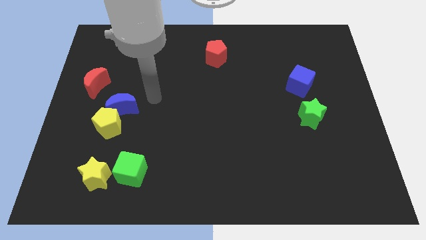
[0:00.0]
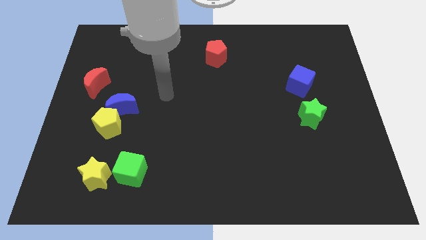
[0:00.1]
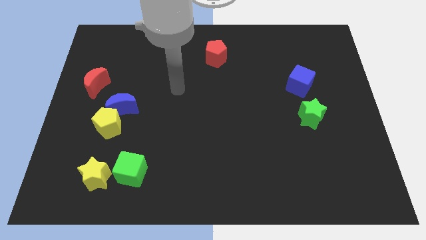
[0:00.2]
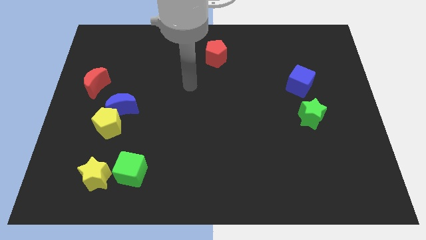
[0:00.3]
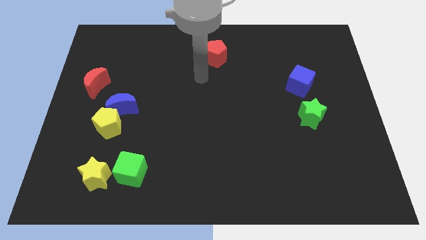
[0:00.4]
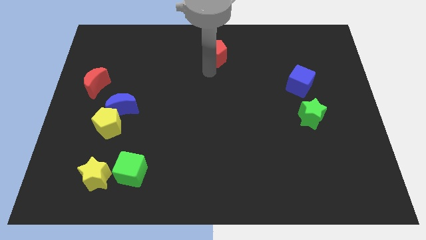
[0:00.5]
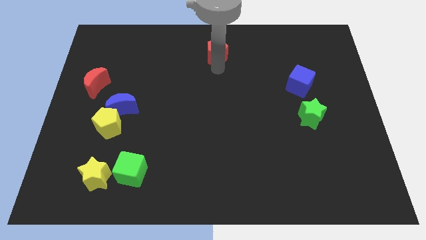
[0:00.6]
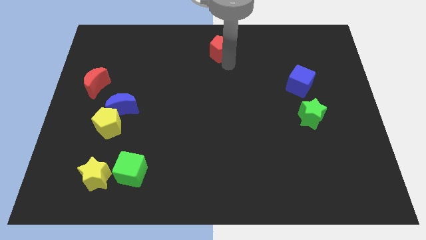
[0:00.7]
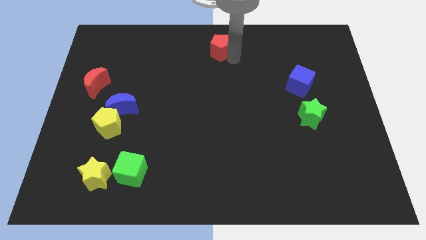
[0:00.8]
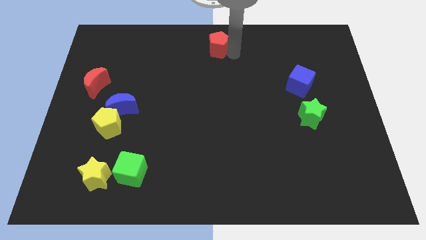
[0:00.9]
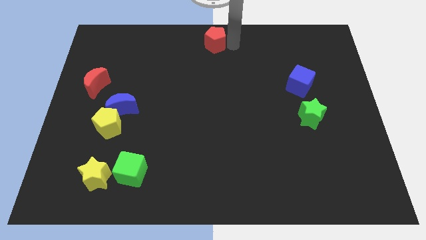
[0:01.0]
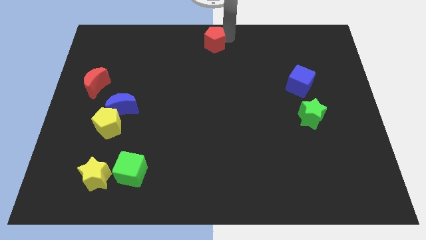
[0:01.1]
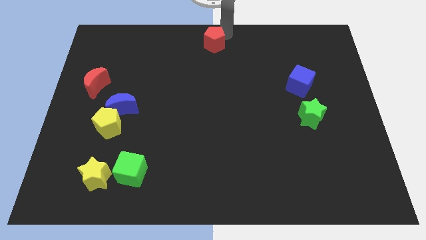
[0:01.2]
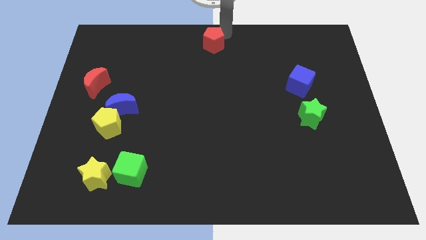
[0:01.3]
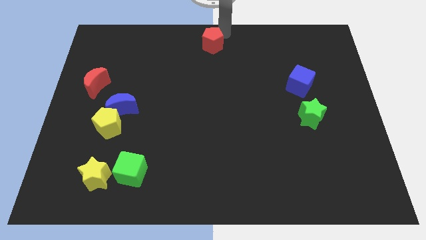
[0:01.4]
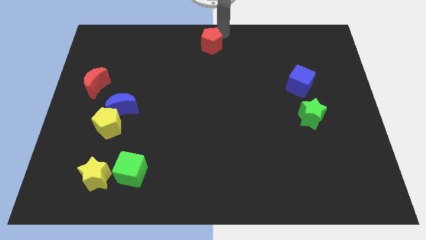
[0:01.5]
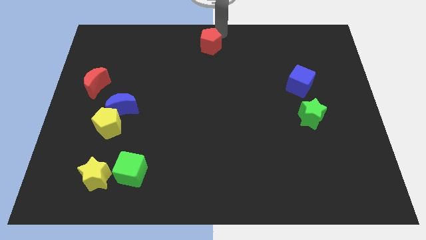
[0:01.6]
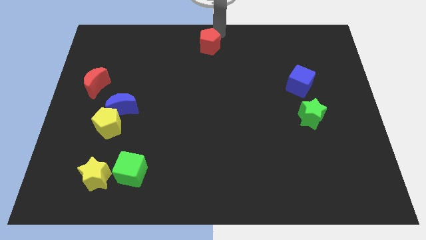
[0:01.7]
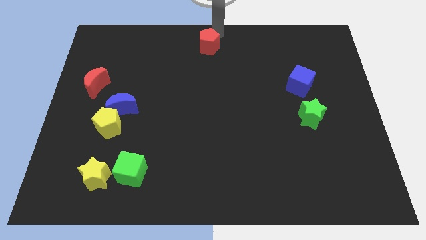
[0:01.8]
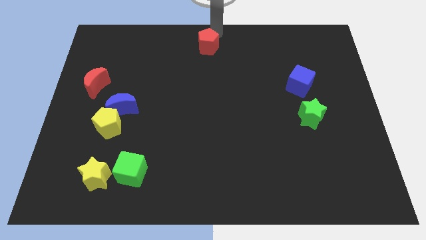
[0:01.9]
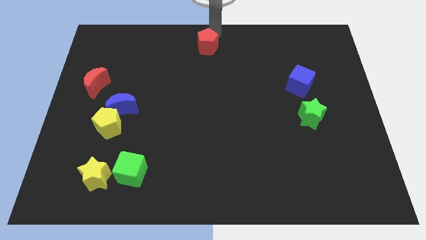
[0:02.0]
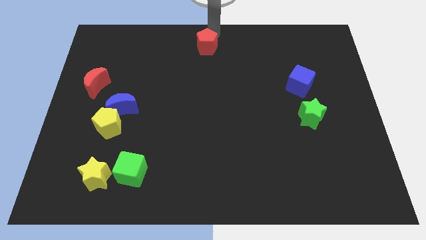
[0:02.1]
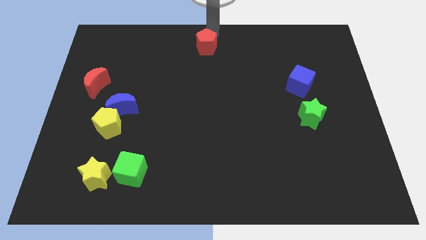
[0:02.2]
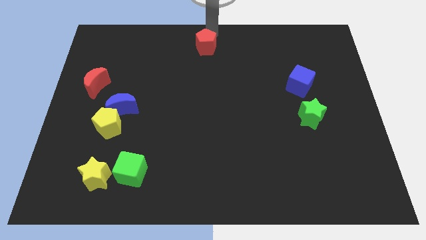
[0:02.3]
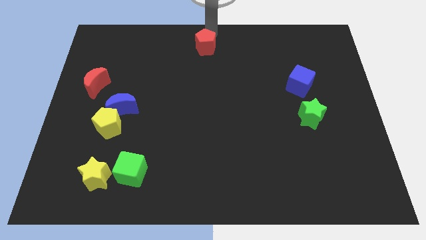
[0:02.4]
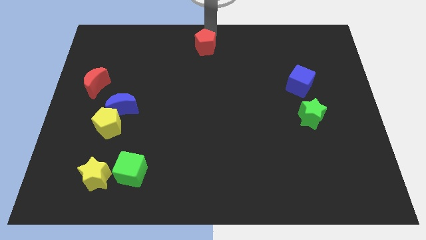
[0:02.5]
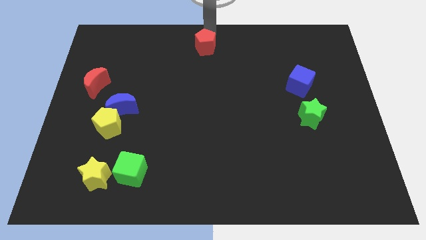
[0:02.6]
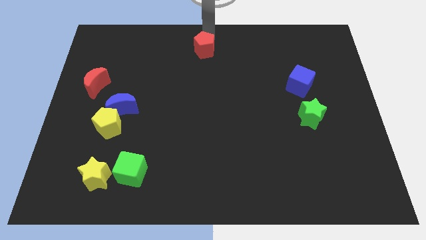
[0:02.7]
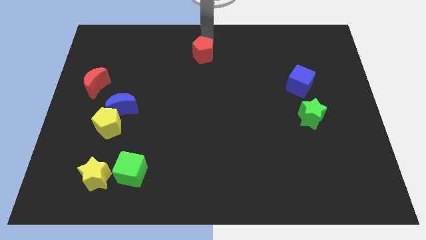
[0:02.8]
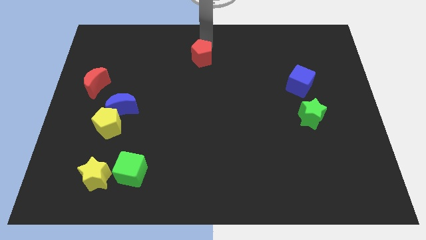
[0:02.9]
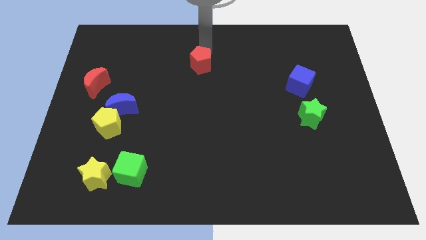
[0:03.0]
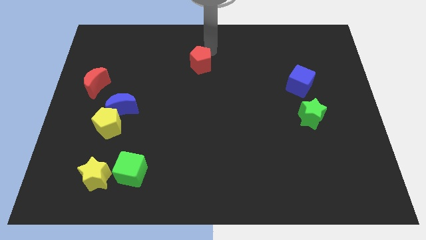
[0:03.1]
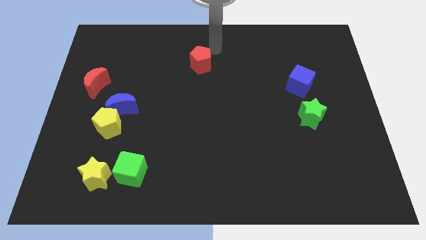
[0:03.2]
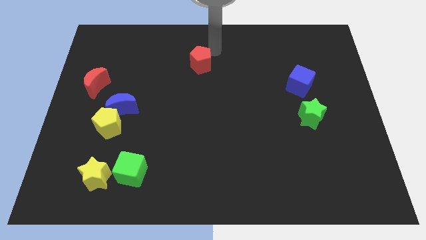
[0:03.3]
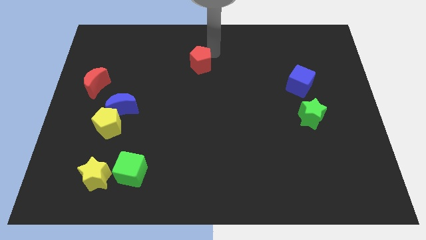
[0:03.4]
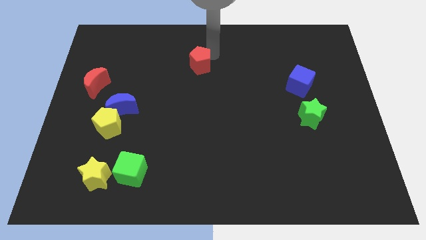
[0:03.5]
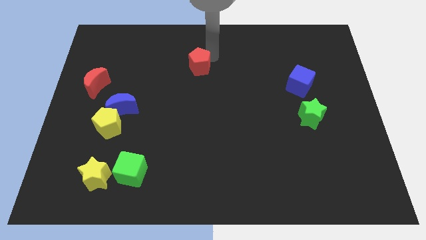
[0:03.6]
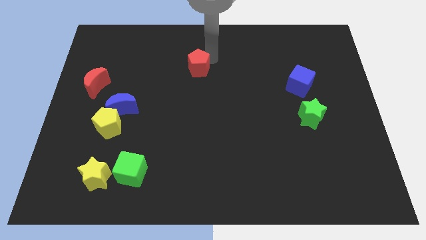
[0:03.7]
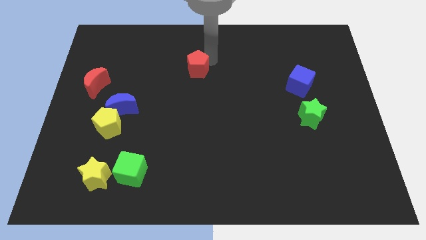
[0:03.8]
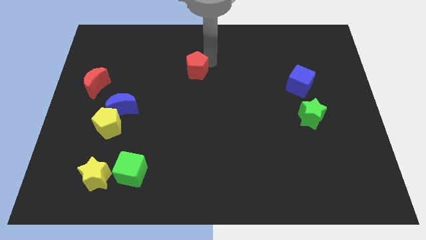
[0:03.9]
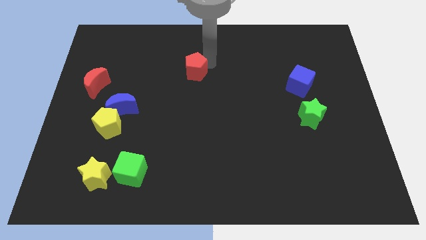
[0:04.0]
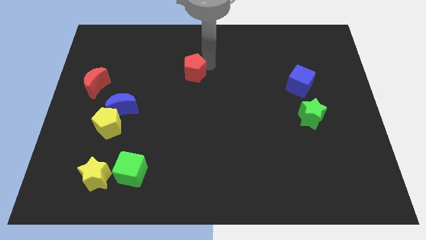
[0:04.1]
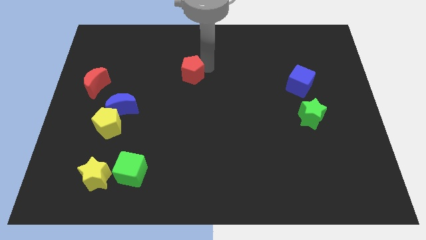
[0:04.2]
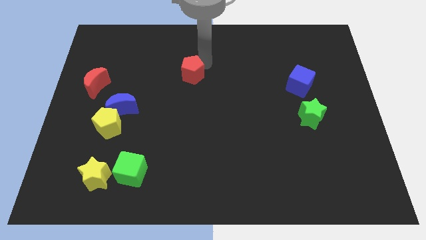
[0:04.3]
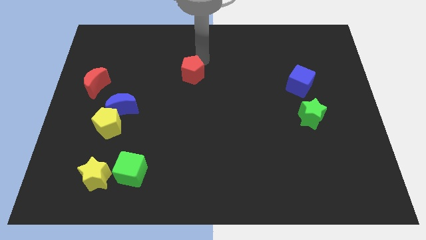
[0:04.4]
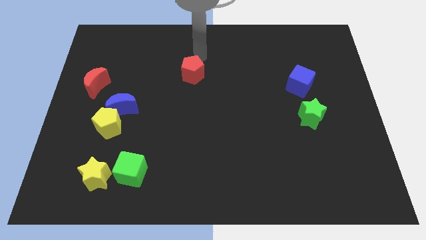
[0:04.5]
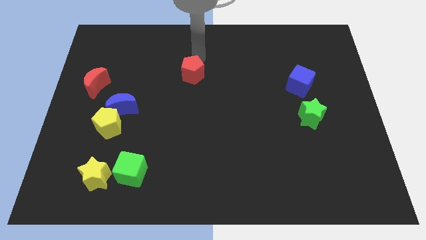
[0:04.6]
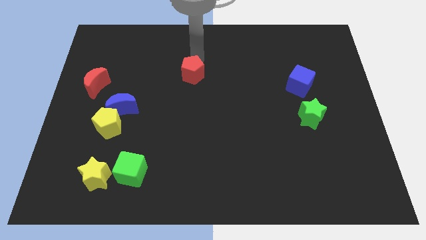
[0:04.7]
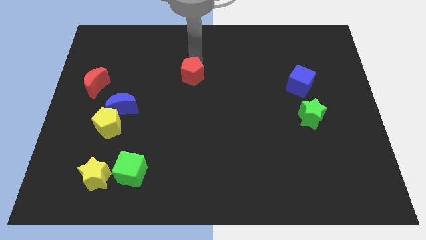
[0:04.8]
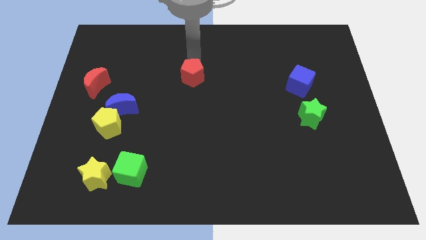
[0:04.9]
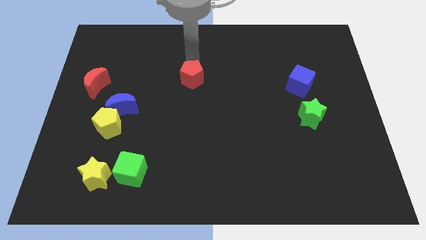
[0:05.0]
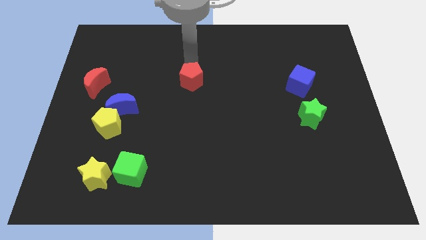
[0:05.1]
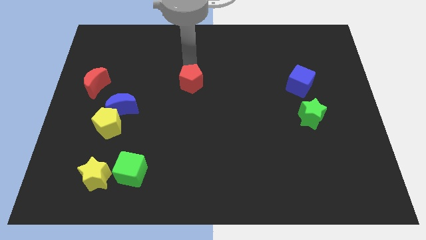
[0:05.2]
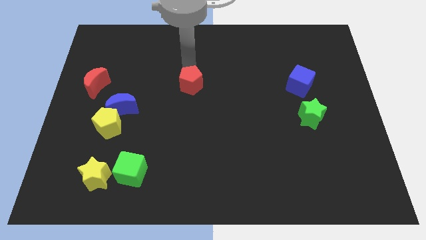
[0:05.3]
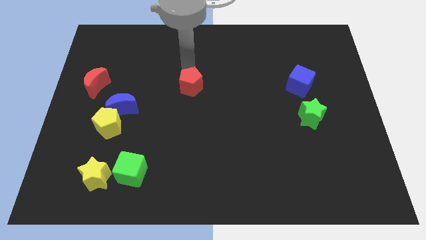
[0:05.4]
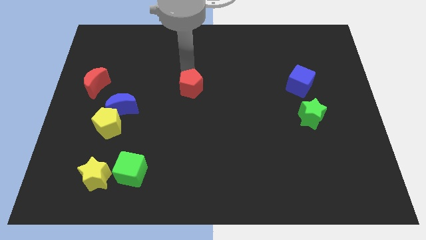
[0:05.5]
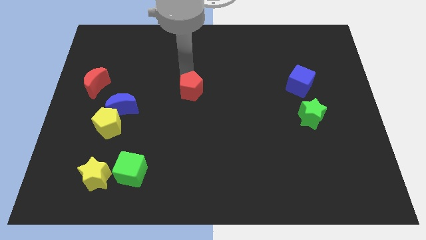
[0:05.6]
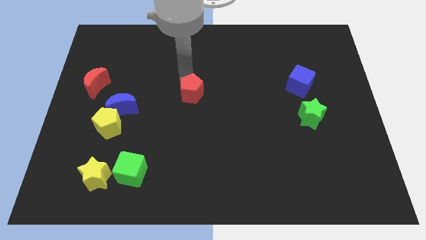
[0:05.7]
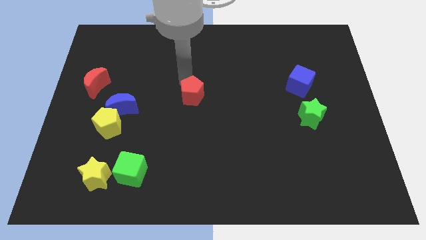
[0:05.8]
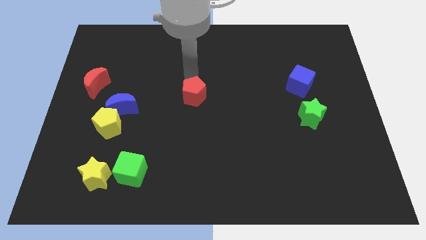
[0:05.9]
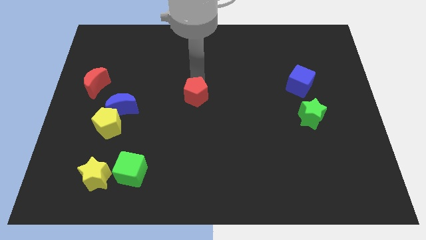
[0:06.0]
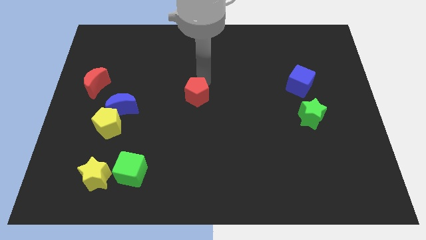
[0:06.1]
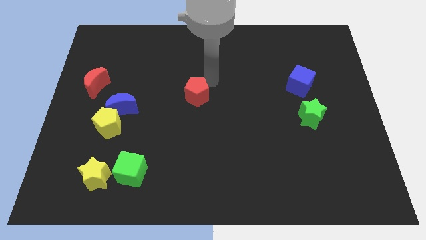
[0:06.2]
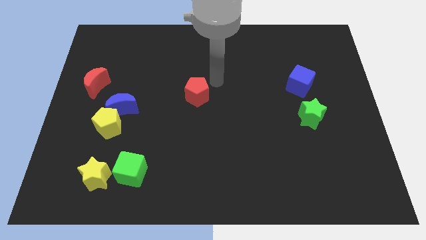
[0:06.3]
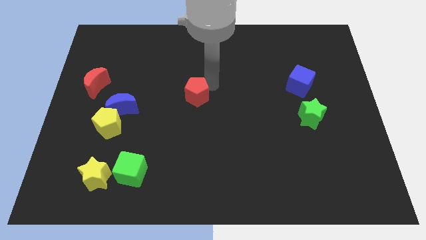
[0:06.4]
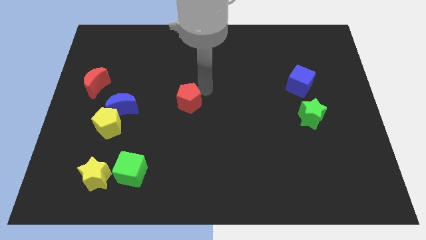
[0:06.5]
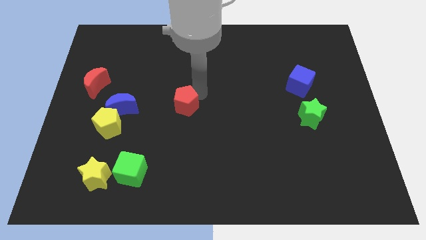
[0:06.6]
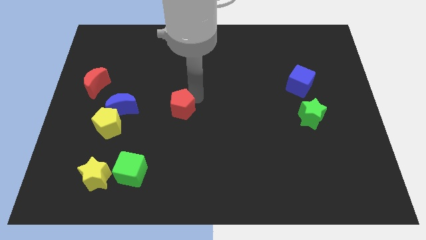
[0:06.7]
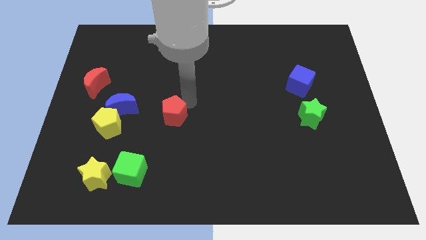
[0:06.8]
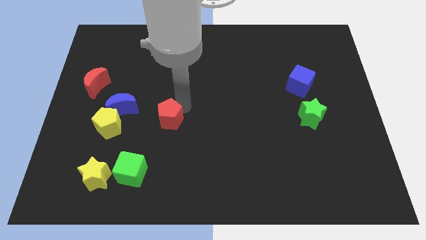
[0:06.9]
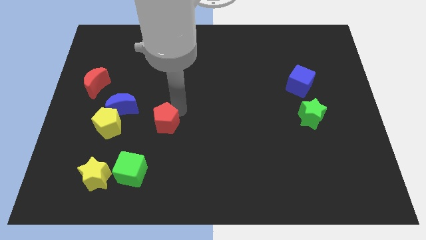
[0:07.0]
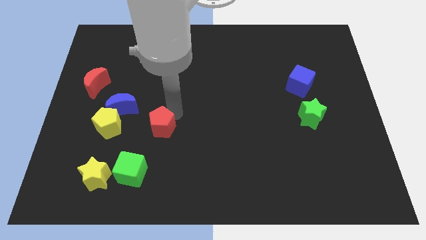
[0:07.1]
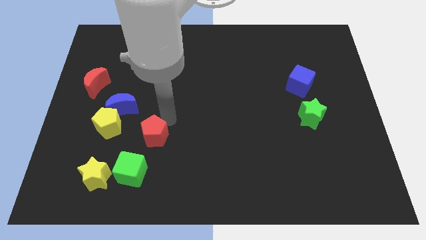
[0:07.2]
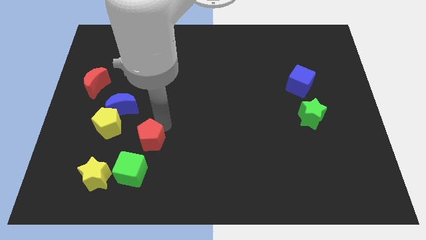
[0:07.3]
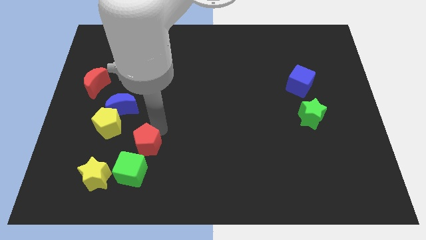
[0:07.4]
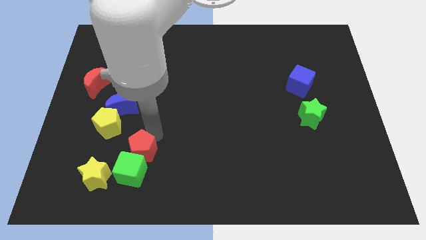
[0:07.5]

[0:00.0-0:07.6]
push the red pentagon close to the green cube
